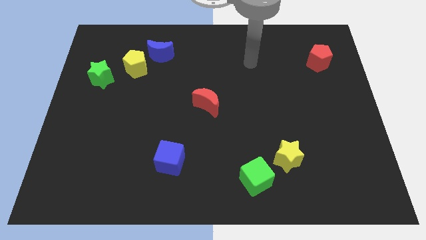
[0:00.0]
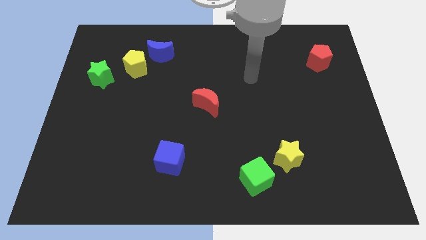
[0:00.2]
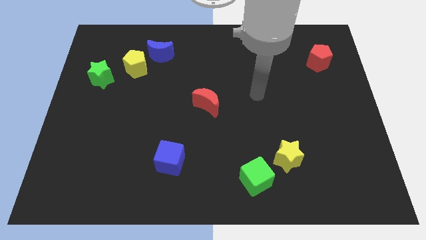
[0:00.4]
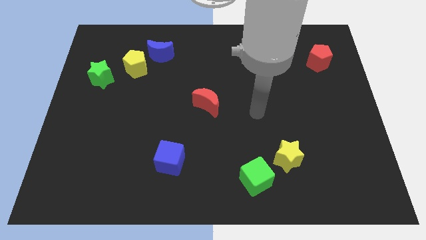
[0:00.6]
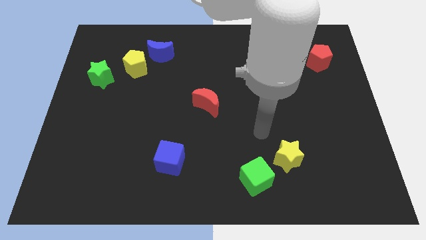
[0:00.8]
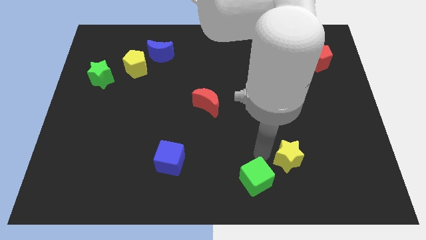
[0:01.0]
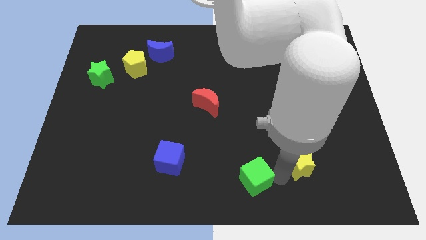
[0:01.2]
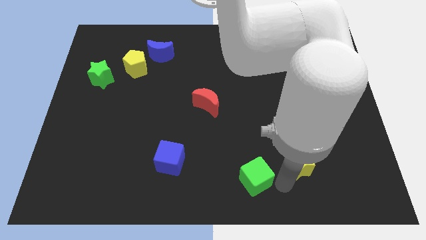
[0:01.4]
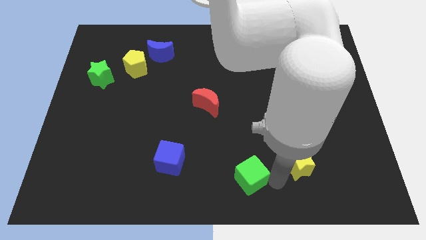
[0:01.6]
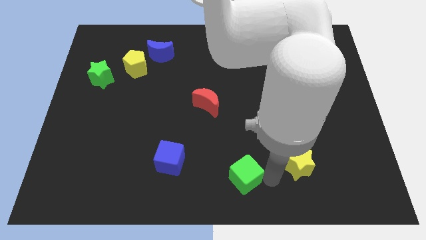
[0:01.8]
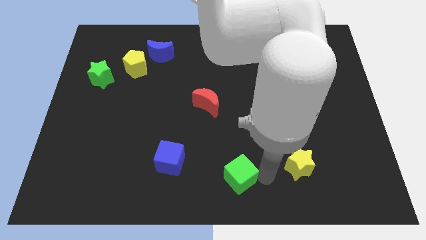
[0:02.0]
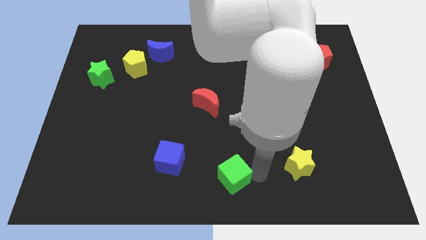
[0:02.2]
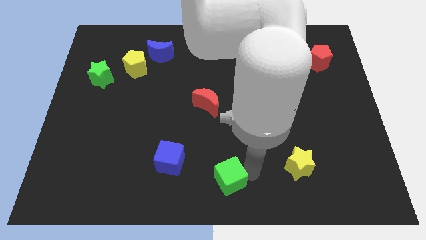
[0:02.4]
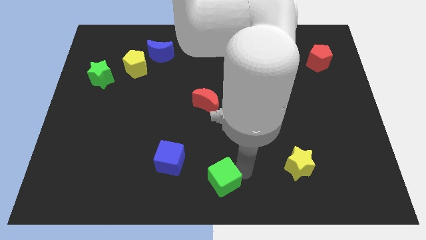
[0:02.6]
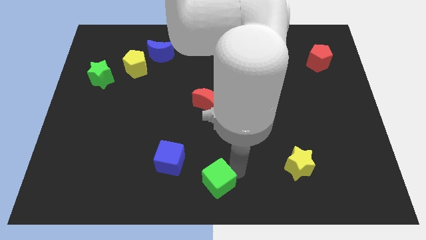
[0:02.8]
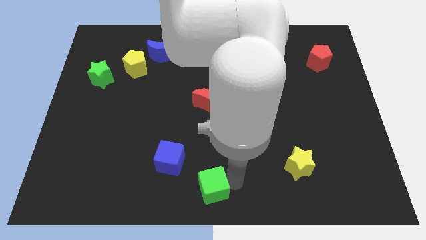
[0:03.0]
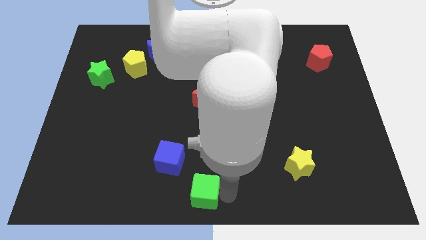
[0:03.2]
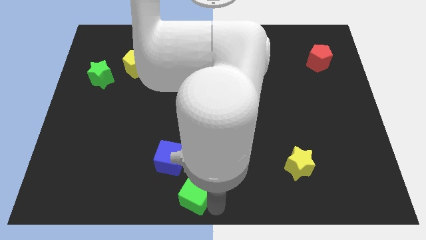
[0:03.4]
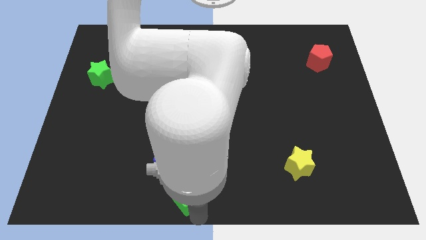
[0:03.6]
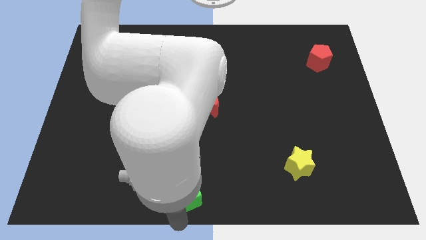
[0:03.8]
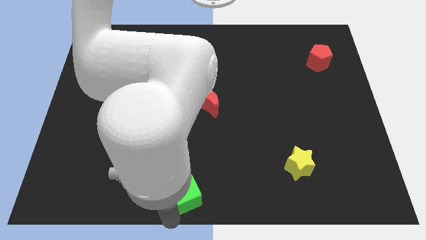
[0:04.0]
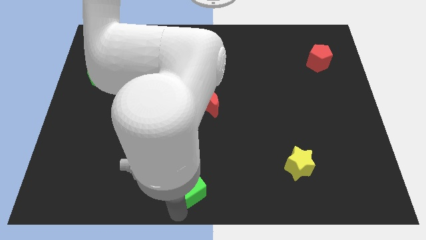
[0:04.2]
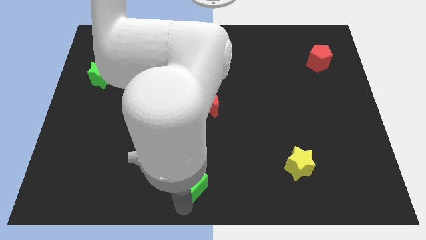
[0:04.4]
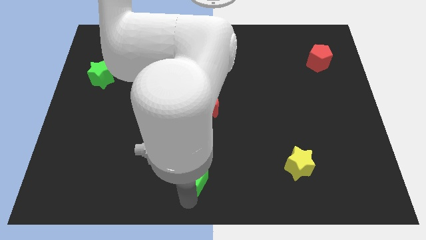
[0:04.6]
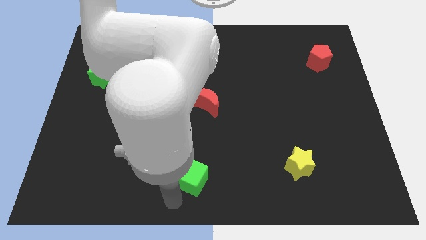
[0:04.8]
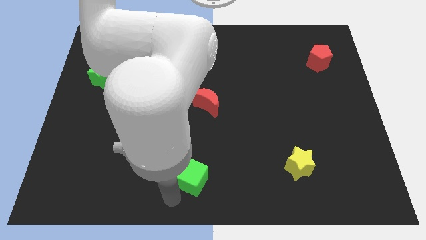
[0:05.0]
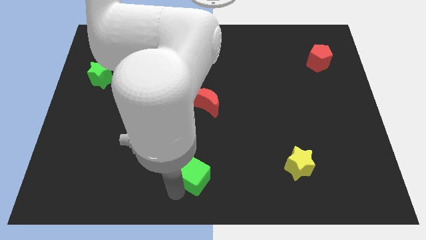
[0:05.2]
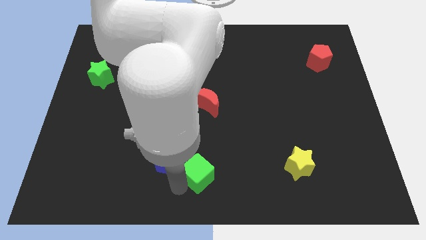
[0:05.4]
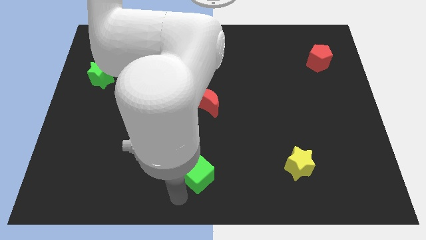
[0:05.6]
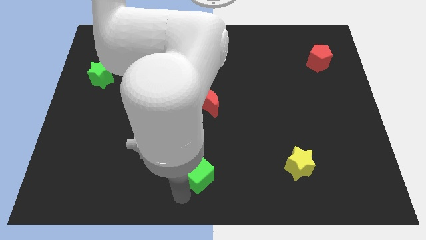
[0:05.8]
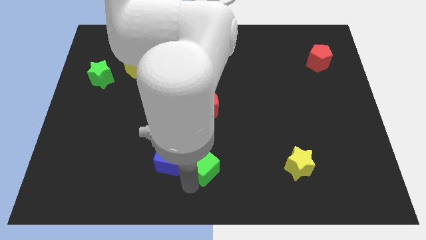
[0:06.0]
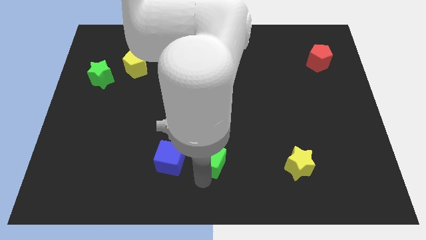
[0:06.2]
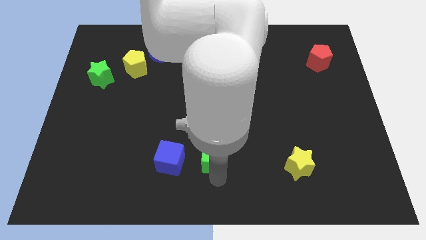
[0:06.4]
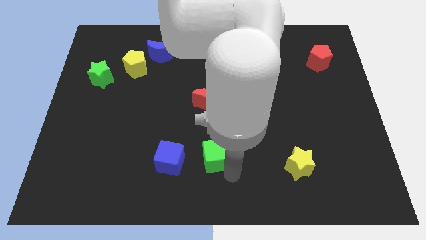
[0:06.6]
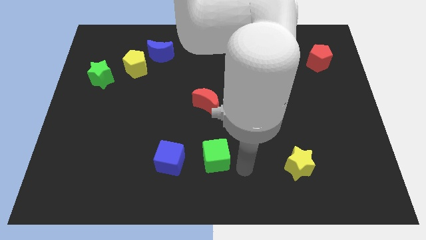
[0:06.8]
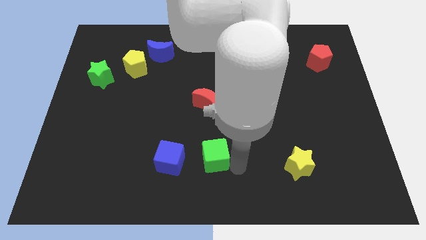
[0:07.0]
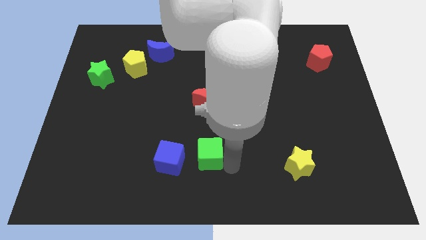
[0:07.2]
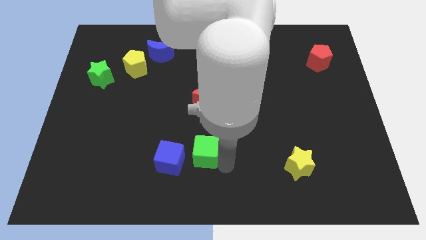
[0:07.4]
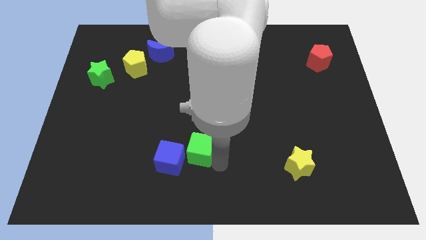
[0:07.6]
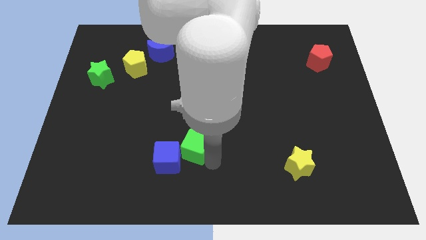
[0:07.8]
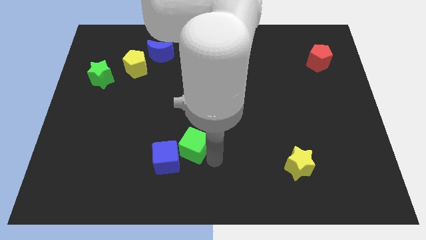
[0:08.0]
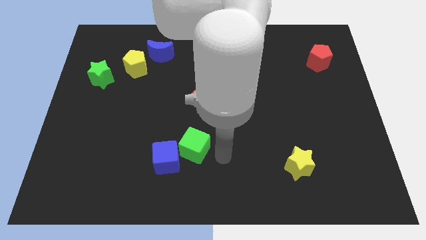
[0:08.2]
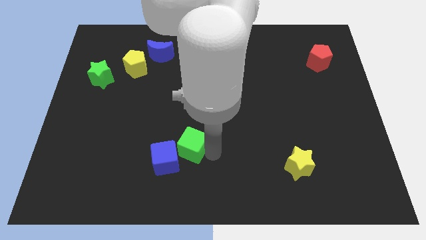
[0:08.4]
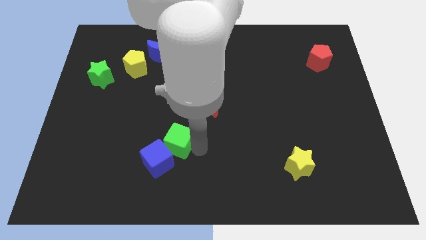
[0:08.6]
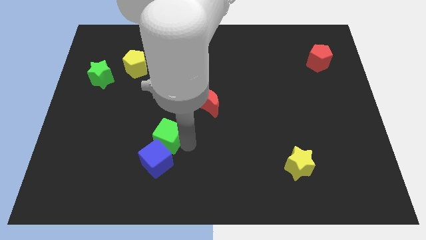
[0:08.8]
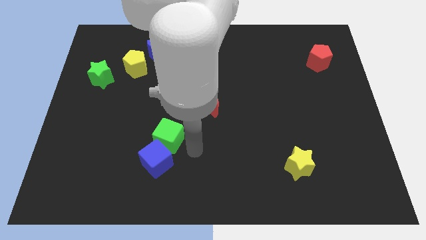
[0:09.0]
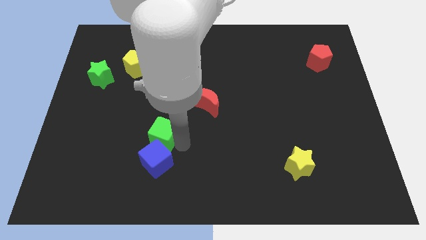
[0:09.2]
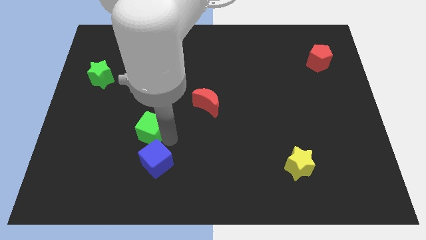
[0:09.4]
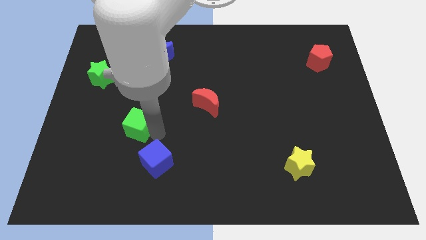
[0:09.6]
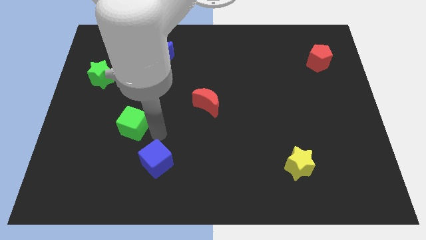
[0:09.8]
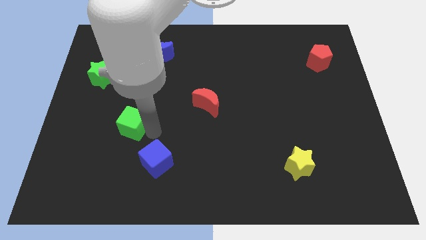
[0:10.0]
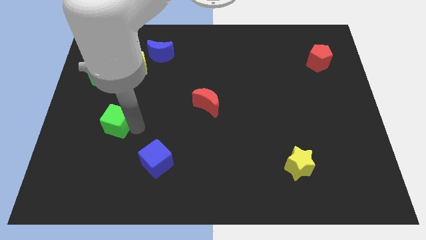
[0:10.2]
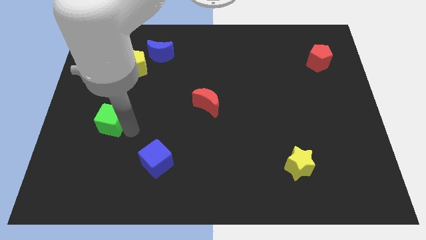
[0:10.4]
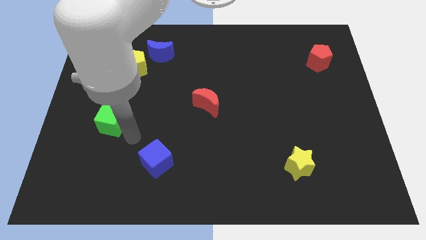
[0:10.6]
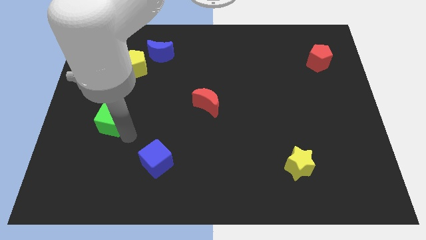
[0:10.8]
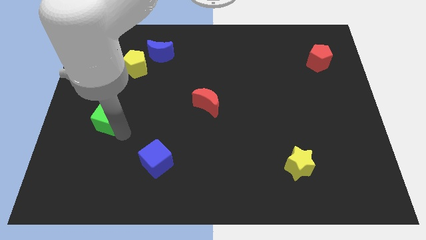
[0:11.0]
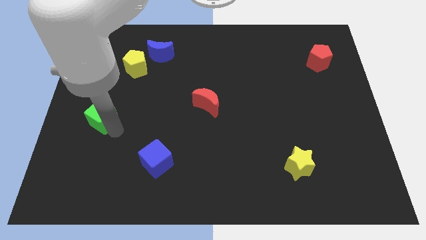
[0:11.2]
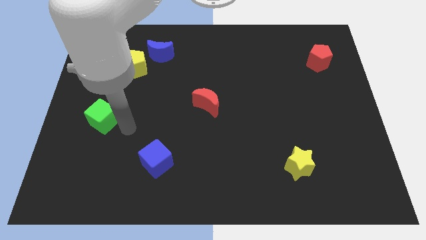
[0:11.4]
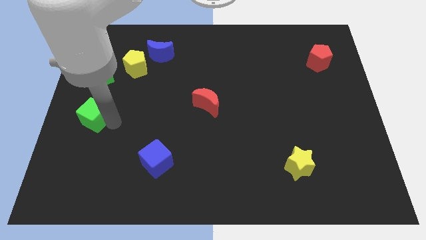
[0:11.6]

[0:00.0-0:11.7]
slide the green cube to the left side

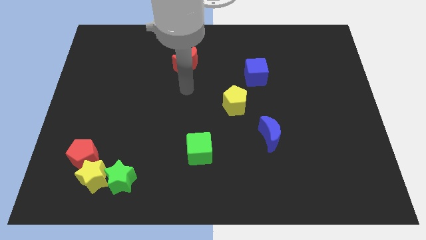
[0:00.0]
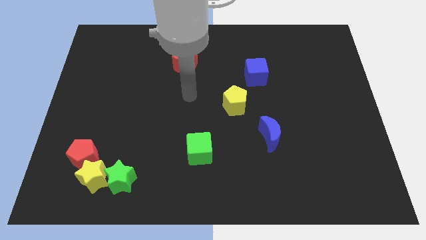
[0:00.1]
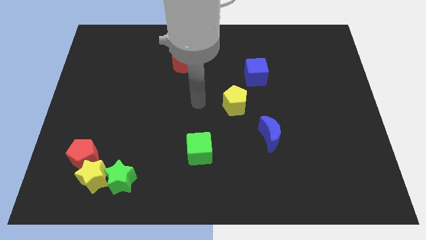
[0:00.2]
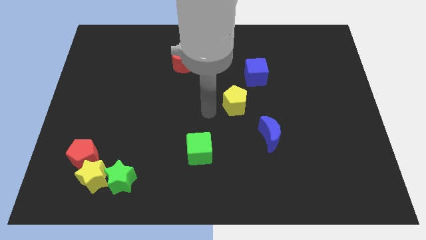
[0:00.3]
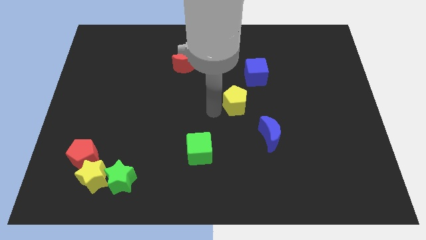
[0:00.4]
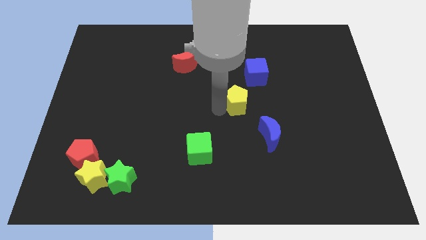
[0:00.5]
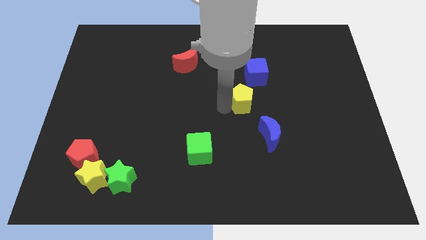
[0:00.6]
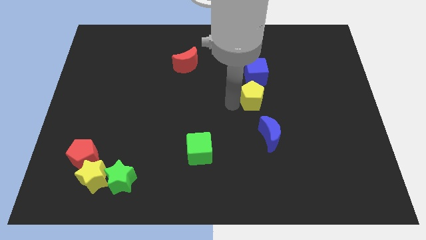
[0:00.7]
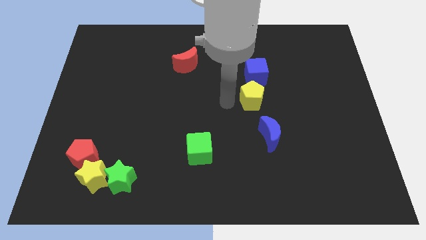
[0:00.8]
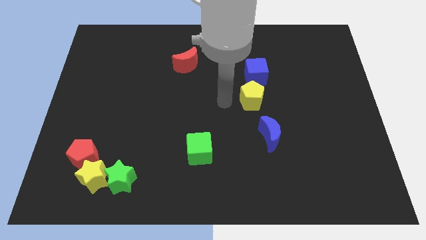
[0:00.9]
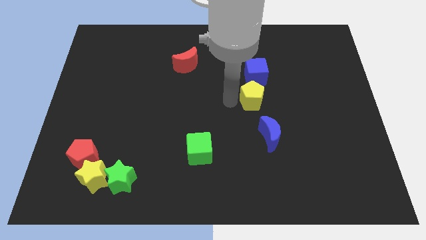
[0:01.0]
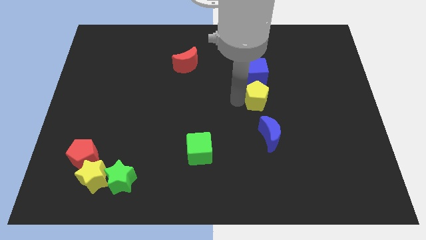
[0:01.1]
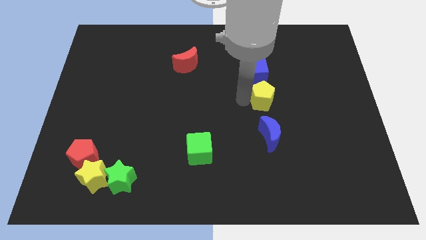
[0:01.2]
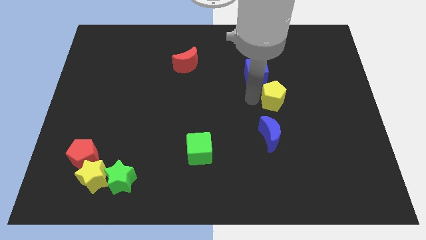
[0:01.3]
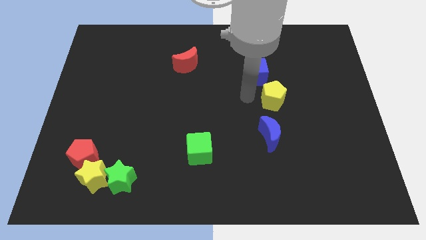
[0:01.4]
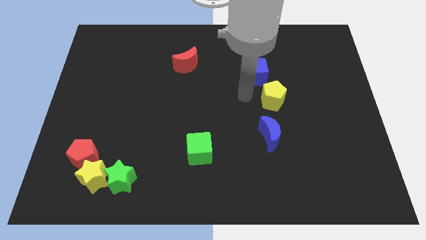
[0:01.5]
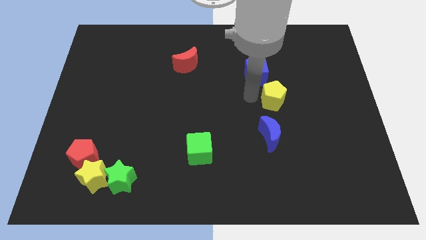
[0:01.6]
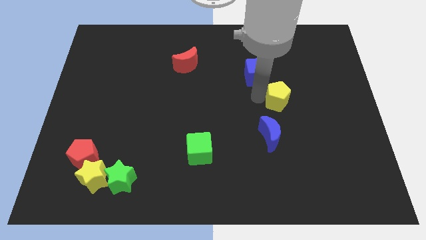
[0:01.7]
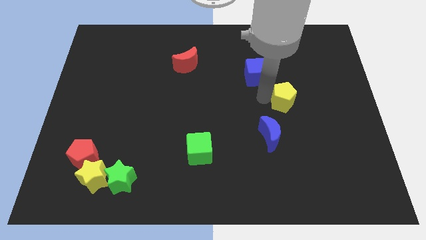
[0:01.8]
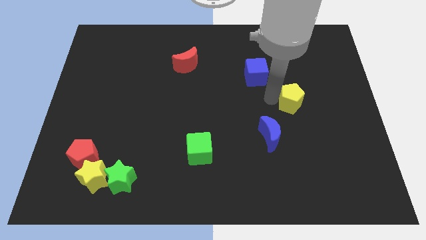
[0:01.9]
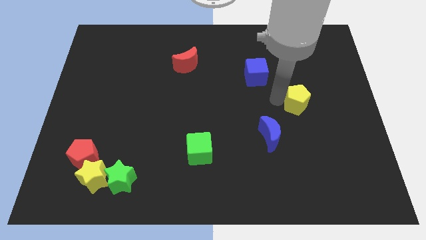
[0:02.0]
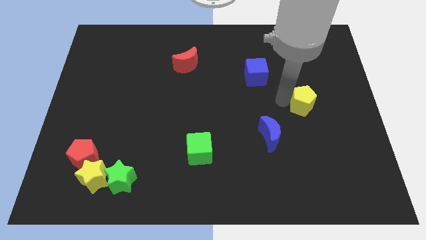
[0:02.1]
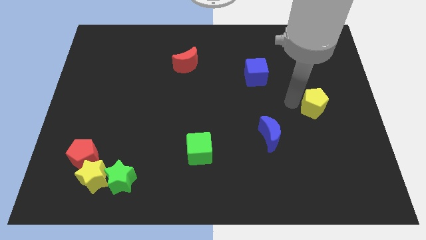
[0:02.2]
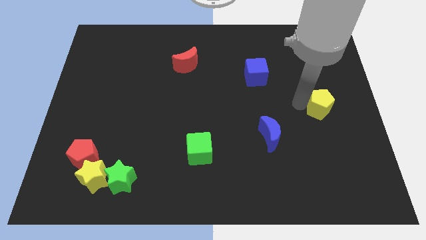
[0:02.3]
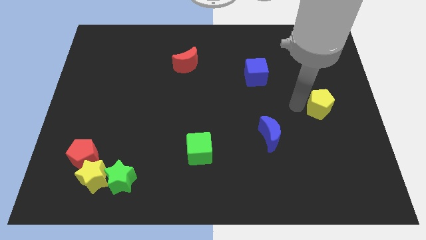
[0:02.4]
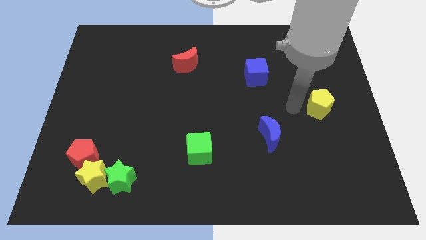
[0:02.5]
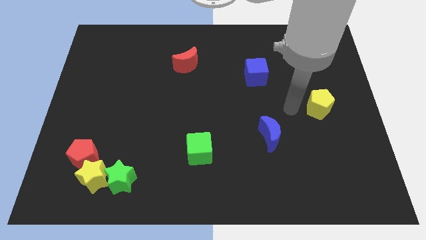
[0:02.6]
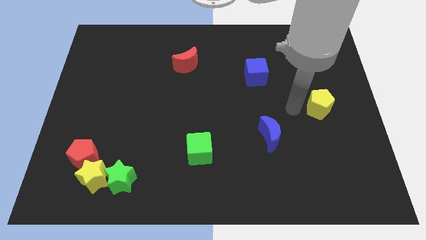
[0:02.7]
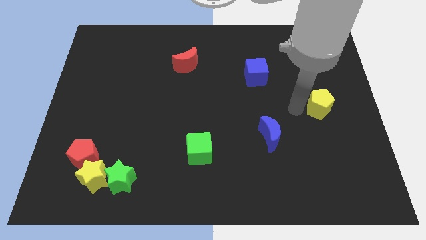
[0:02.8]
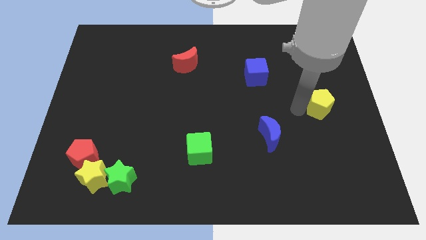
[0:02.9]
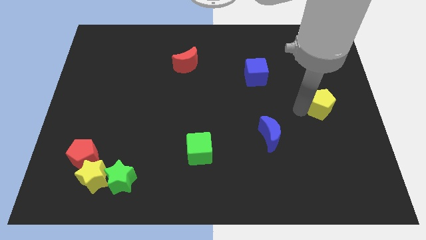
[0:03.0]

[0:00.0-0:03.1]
slide the yellow pentagon to the center right
